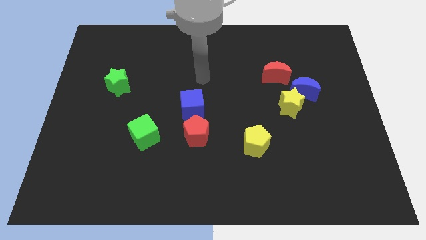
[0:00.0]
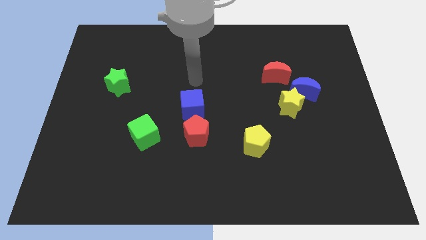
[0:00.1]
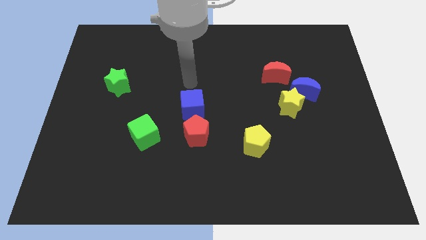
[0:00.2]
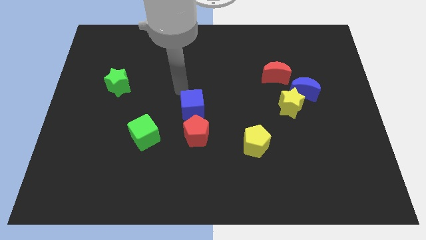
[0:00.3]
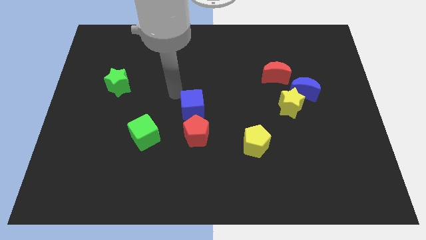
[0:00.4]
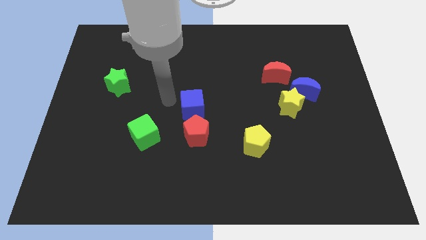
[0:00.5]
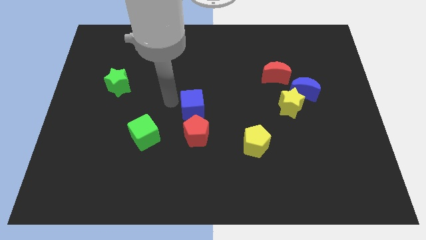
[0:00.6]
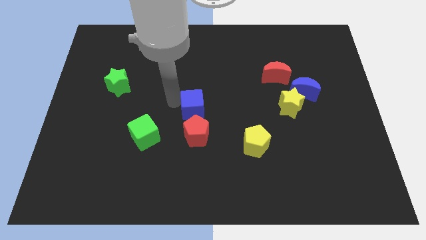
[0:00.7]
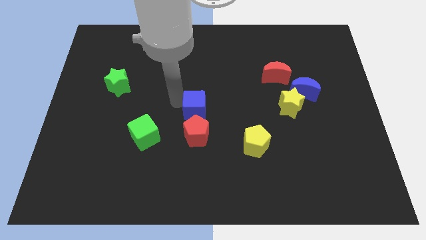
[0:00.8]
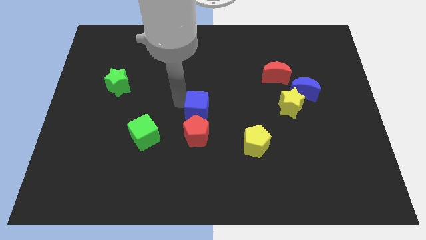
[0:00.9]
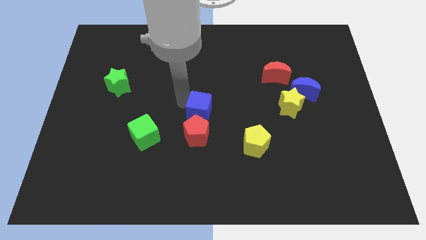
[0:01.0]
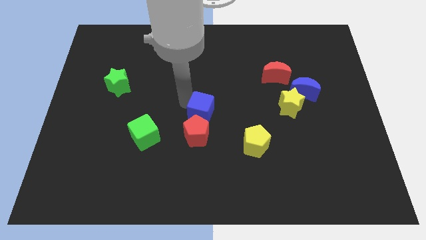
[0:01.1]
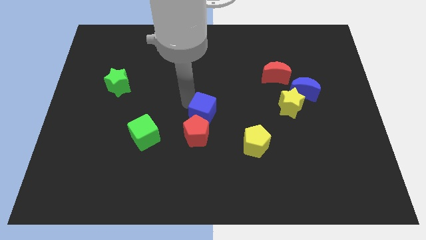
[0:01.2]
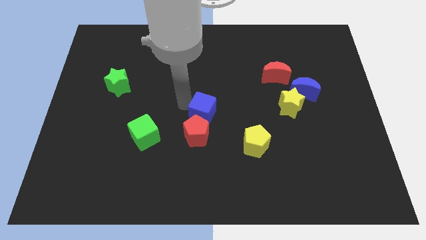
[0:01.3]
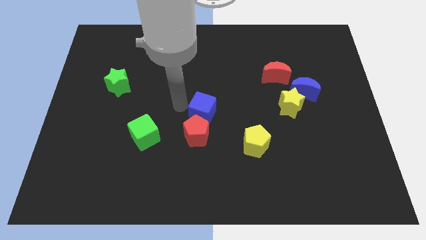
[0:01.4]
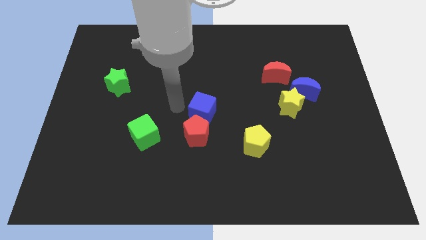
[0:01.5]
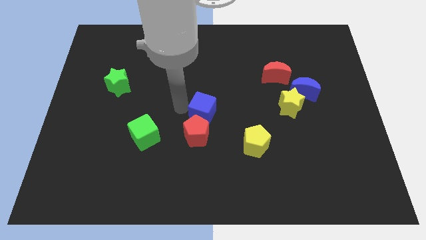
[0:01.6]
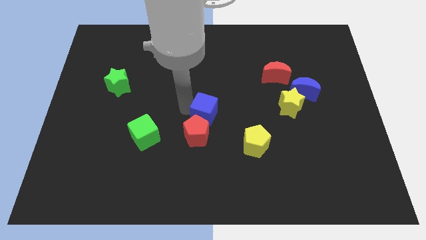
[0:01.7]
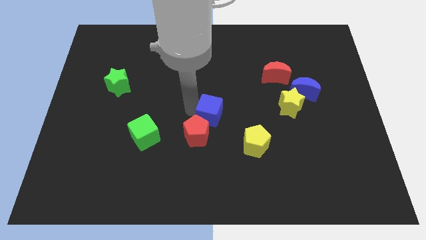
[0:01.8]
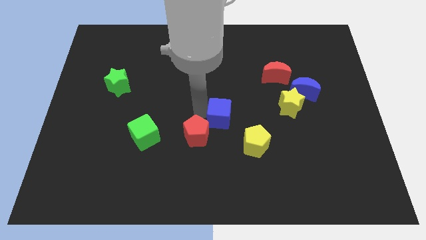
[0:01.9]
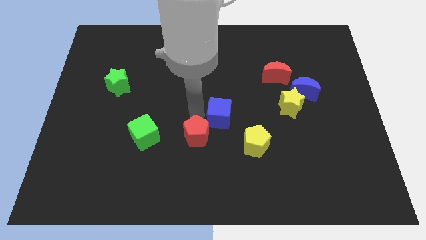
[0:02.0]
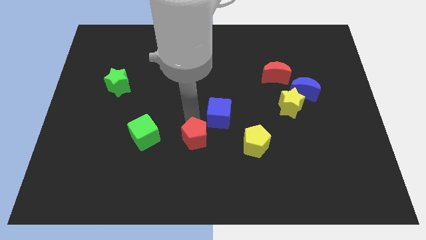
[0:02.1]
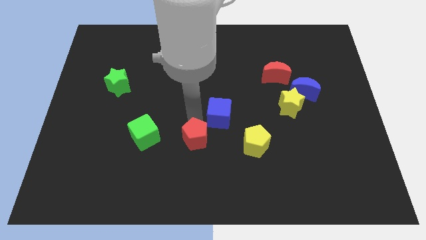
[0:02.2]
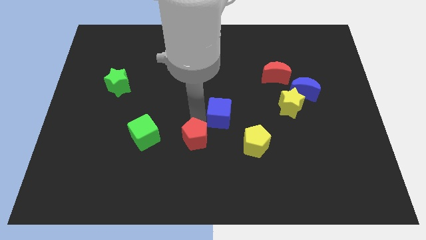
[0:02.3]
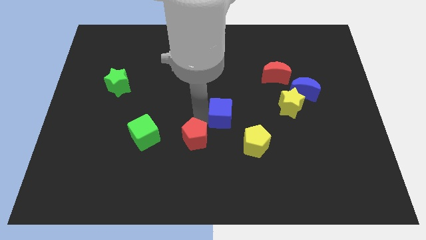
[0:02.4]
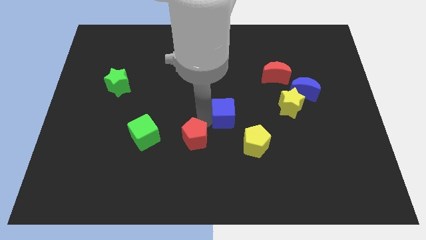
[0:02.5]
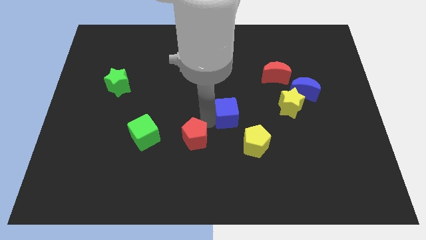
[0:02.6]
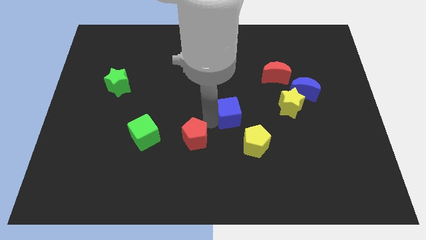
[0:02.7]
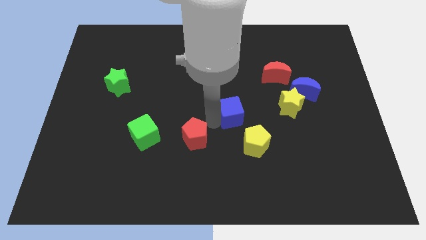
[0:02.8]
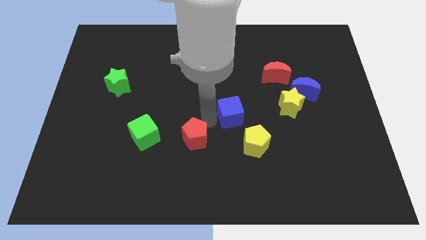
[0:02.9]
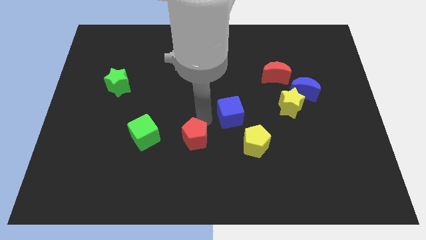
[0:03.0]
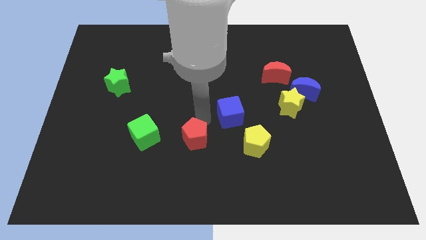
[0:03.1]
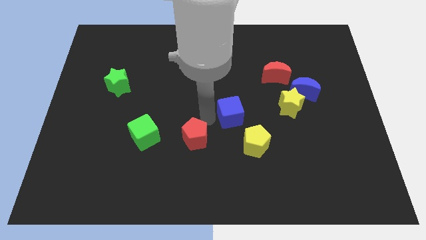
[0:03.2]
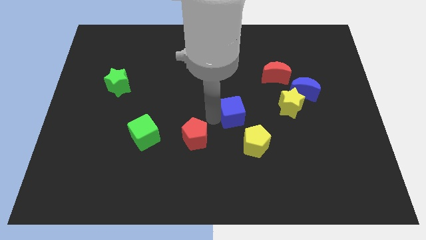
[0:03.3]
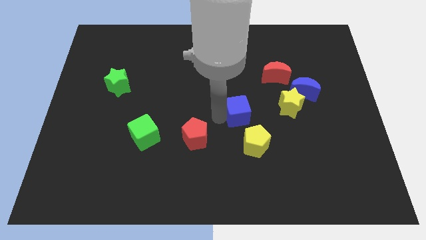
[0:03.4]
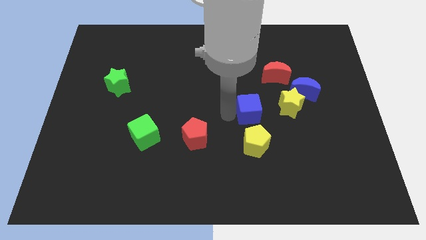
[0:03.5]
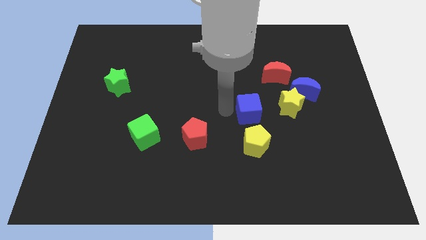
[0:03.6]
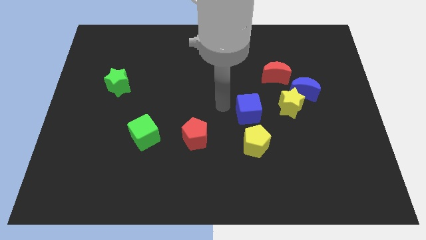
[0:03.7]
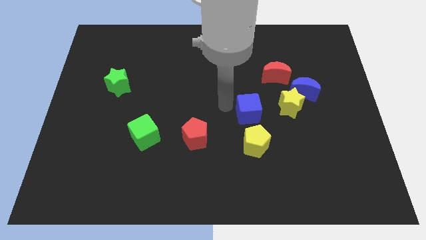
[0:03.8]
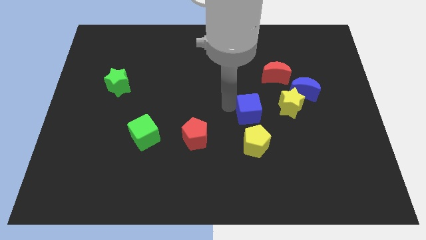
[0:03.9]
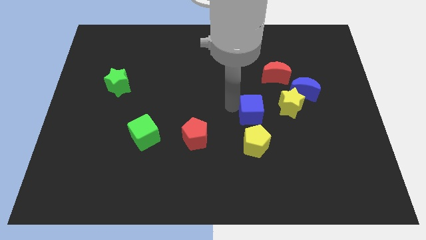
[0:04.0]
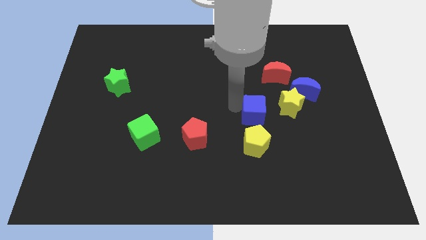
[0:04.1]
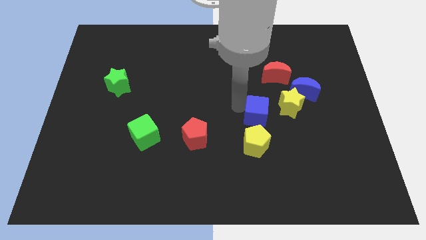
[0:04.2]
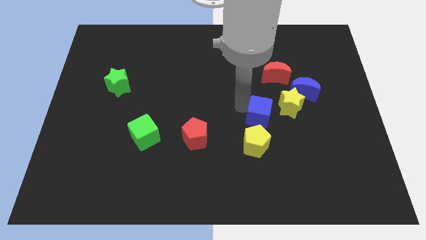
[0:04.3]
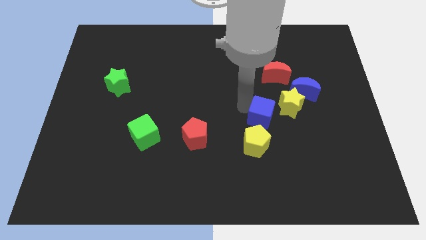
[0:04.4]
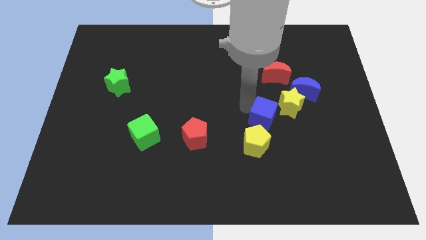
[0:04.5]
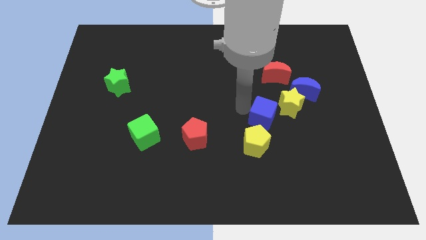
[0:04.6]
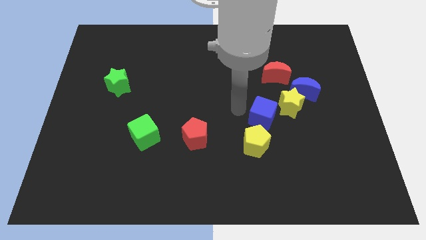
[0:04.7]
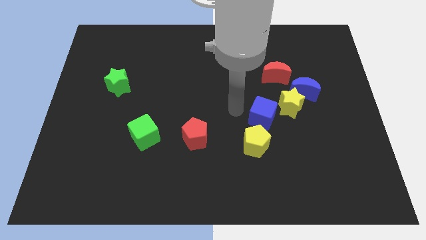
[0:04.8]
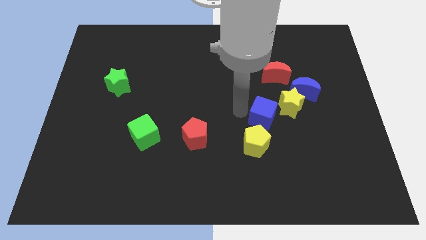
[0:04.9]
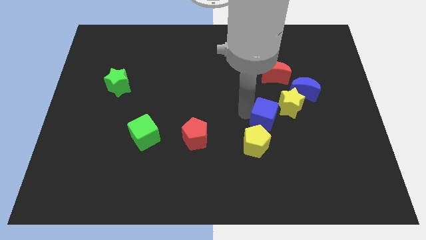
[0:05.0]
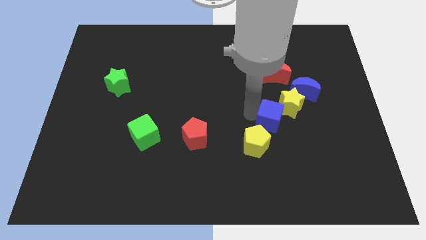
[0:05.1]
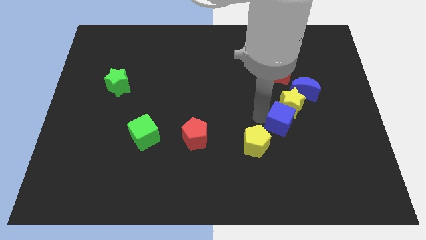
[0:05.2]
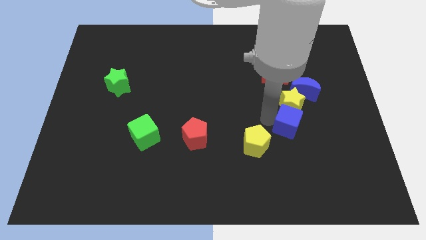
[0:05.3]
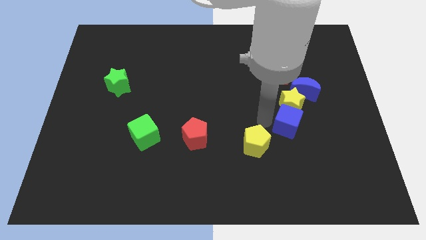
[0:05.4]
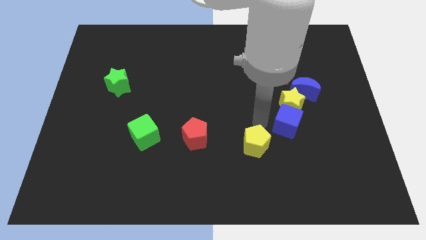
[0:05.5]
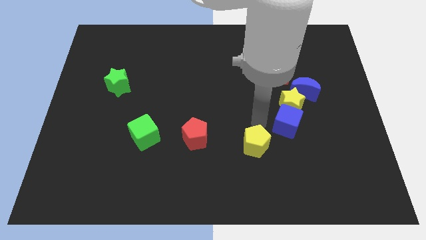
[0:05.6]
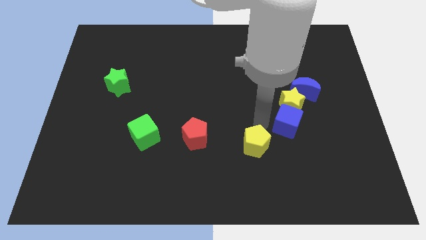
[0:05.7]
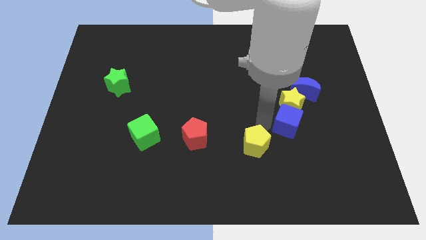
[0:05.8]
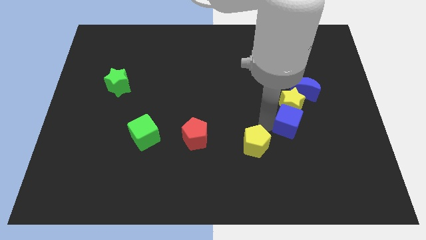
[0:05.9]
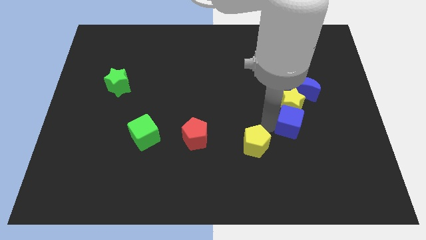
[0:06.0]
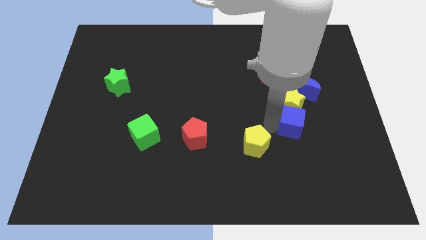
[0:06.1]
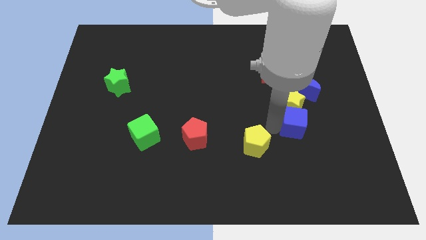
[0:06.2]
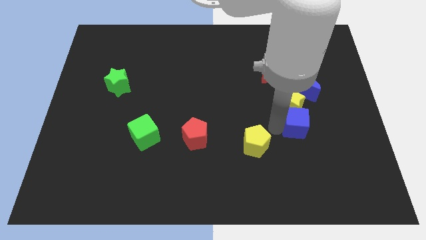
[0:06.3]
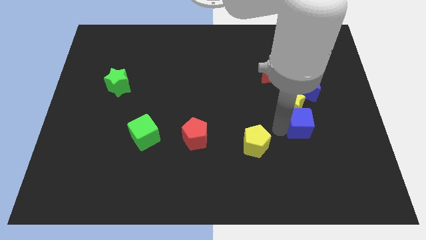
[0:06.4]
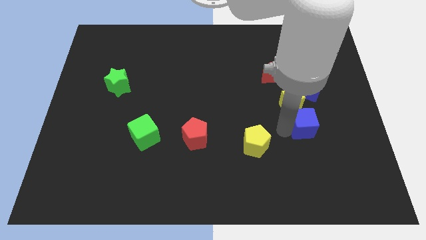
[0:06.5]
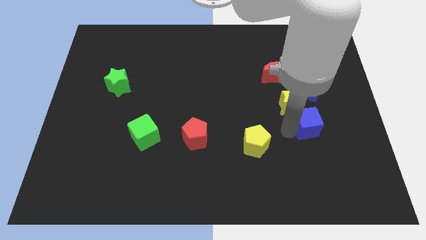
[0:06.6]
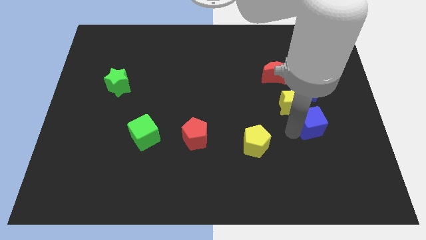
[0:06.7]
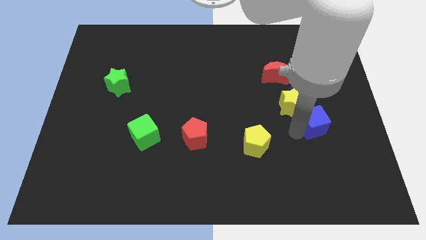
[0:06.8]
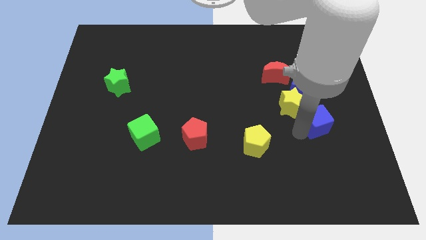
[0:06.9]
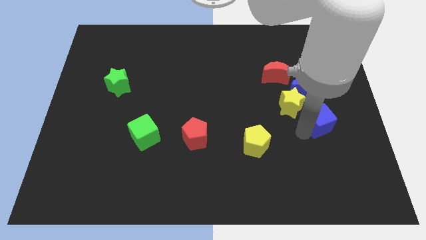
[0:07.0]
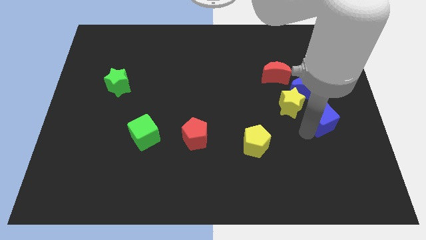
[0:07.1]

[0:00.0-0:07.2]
move the blue cube diagonally down and to the right of the blue moon

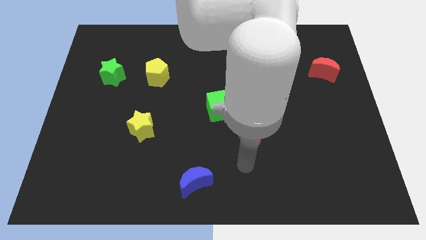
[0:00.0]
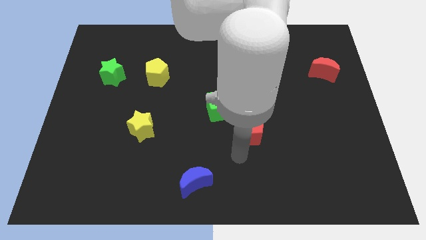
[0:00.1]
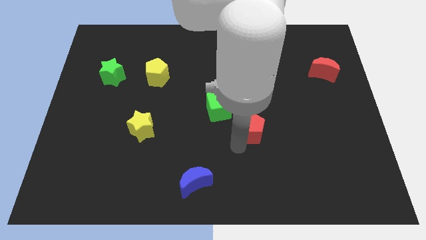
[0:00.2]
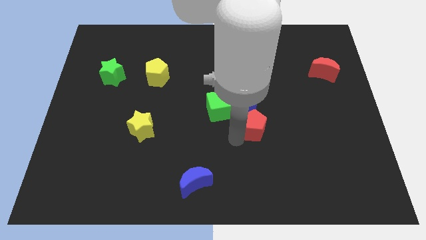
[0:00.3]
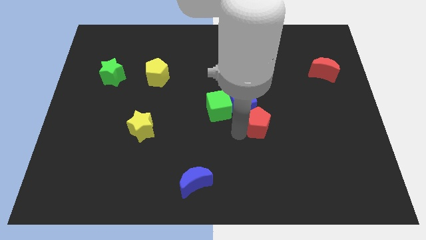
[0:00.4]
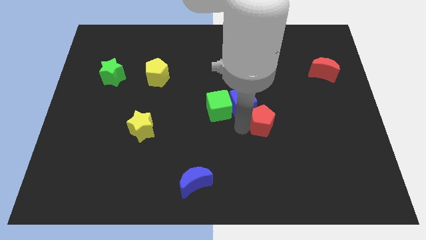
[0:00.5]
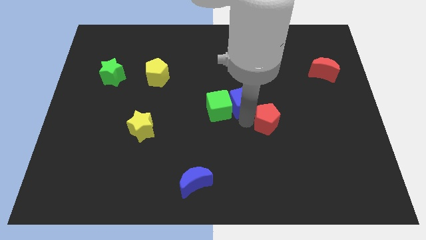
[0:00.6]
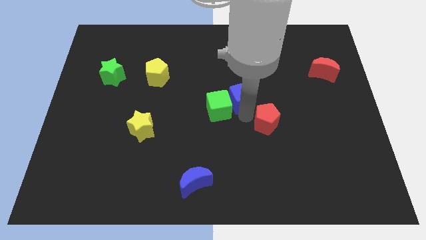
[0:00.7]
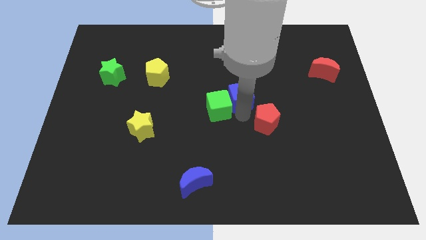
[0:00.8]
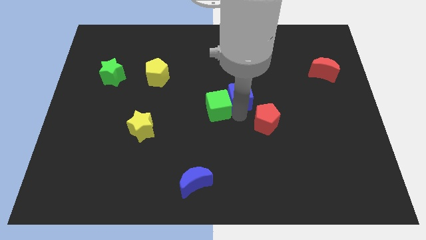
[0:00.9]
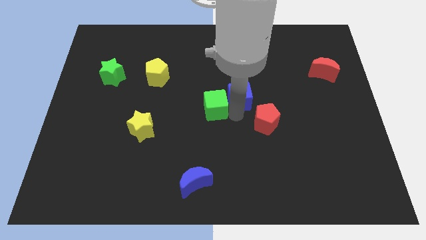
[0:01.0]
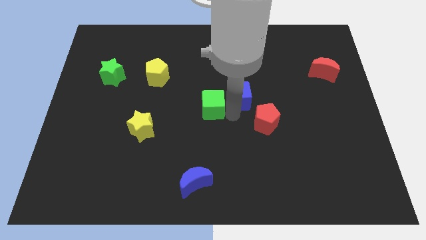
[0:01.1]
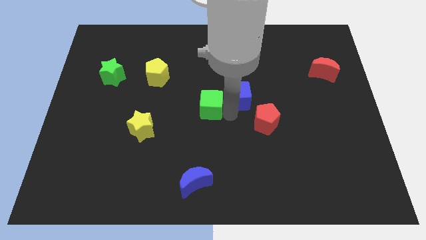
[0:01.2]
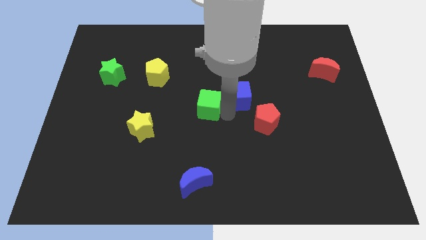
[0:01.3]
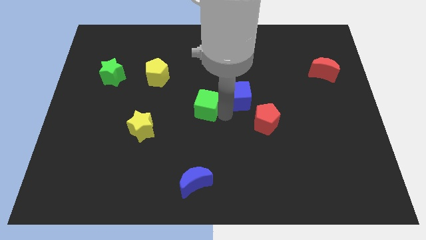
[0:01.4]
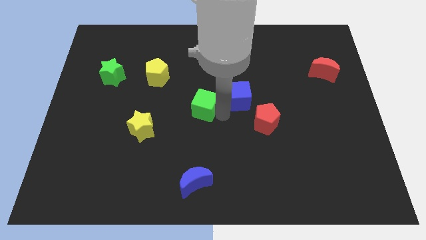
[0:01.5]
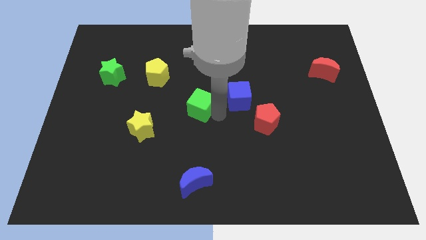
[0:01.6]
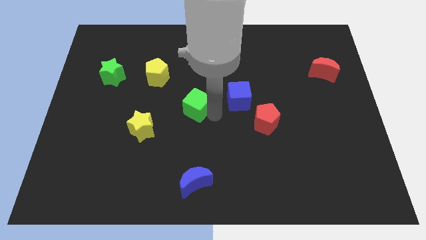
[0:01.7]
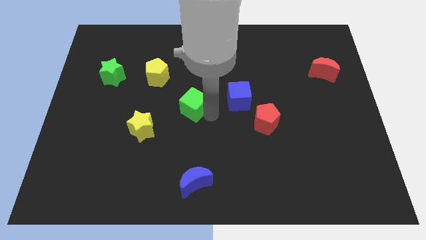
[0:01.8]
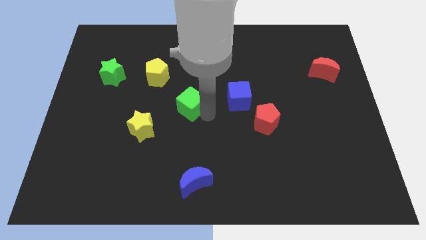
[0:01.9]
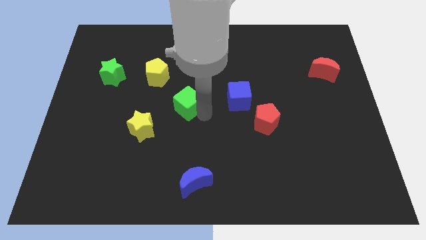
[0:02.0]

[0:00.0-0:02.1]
push the green cube diagonally down and to the right of the yellow pentagon
